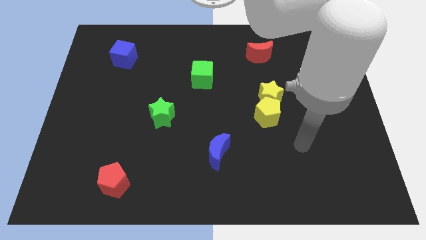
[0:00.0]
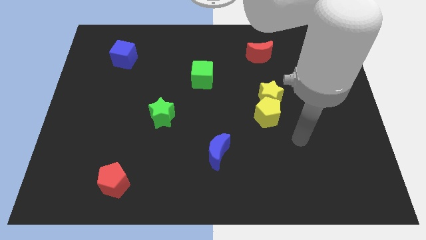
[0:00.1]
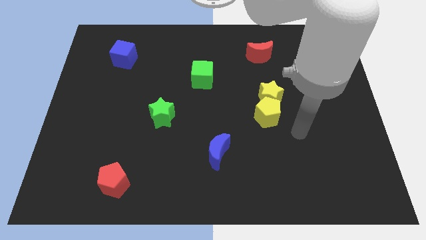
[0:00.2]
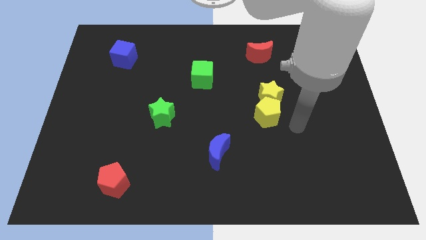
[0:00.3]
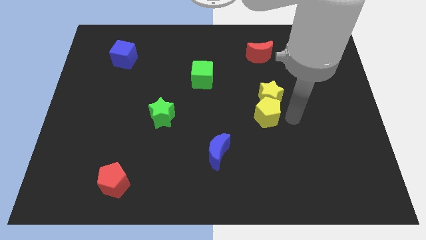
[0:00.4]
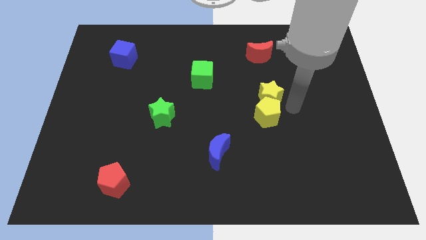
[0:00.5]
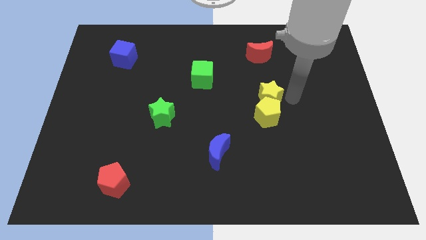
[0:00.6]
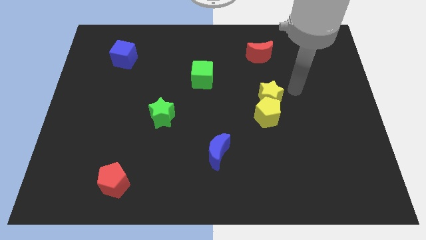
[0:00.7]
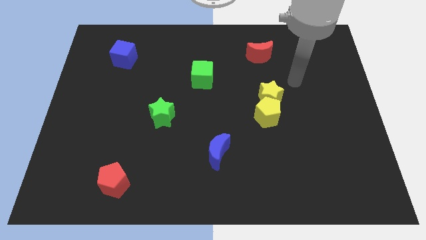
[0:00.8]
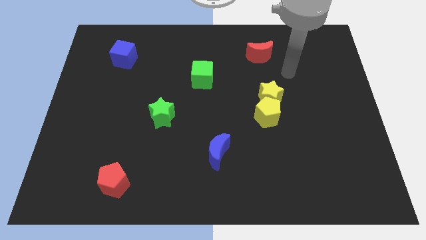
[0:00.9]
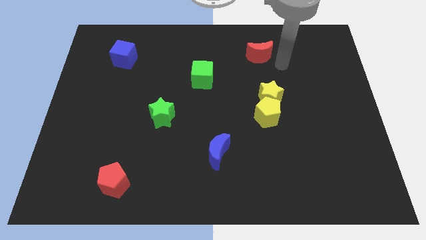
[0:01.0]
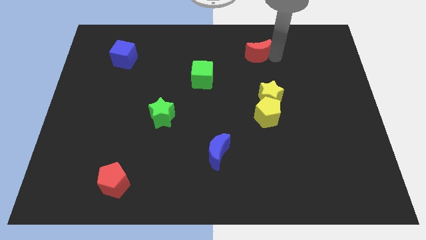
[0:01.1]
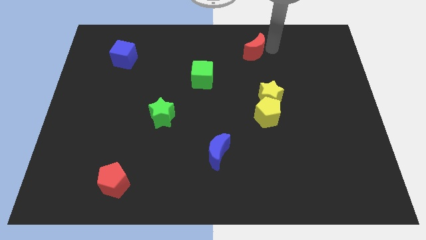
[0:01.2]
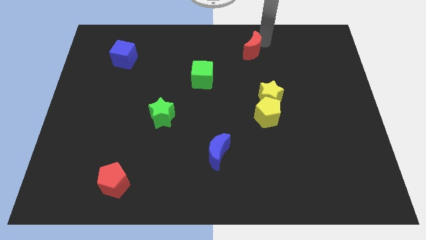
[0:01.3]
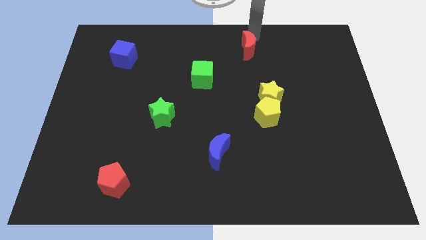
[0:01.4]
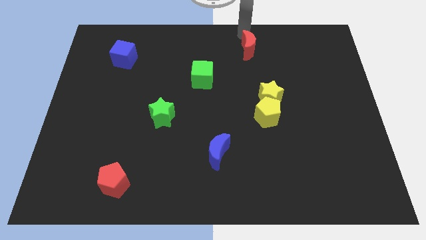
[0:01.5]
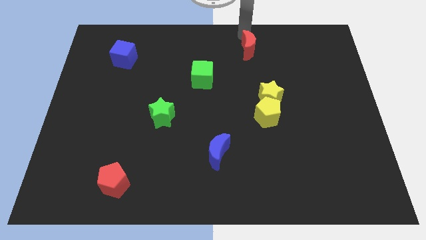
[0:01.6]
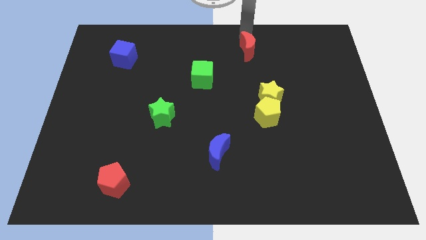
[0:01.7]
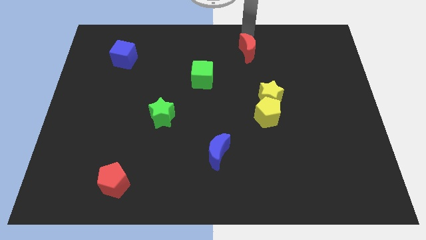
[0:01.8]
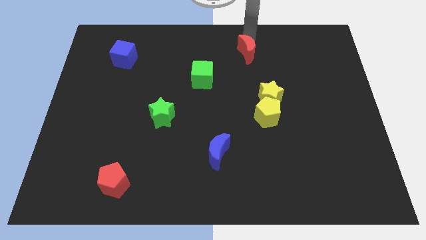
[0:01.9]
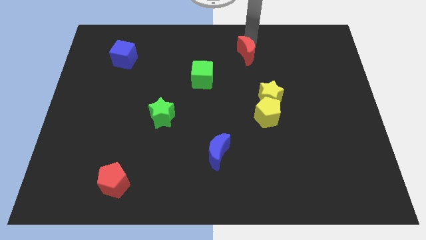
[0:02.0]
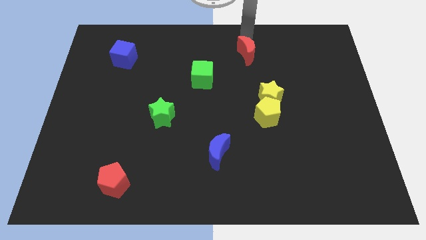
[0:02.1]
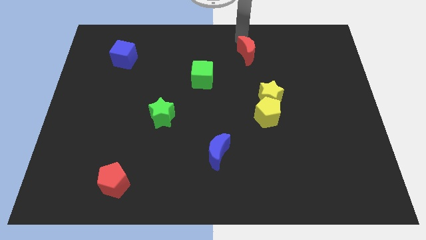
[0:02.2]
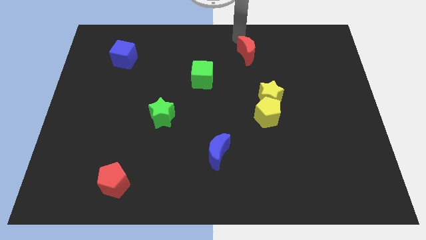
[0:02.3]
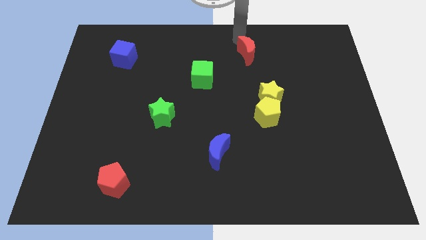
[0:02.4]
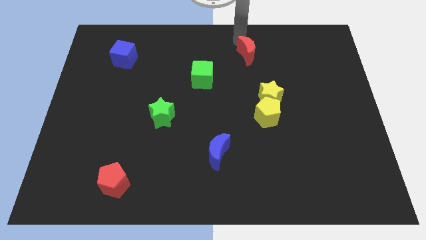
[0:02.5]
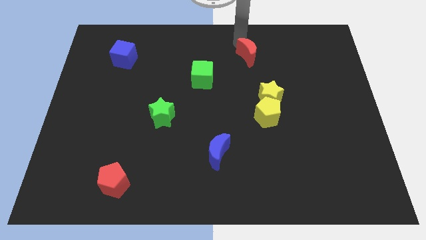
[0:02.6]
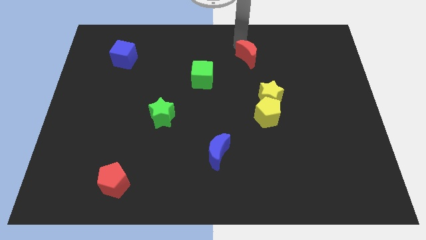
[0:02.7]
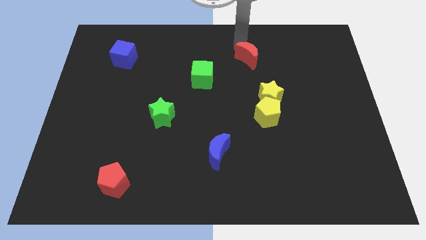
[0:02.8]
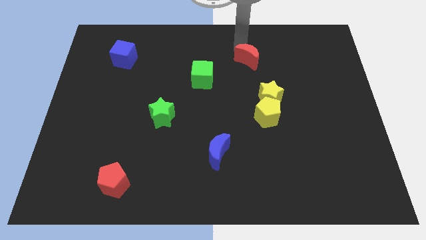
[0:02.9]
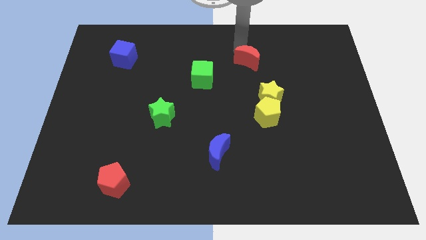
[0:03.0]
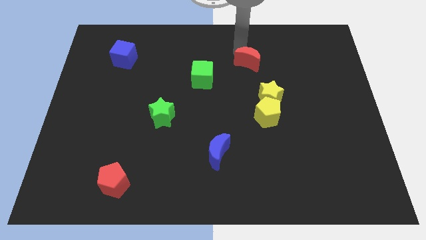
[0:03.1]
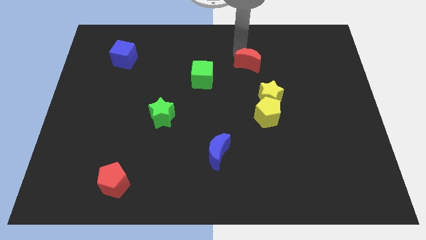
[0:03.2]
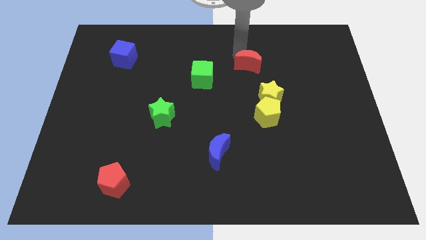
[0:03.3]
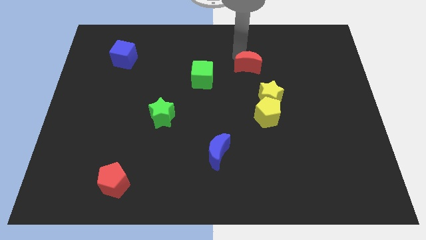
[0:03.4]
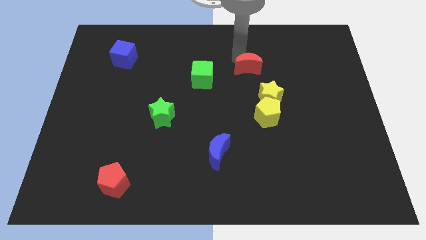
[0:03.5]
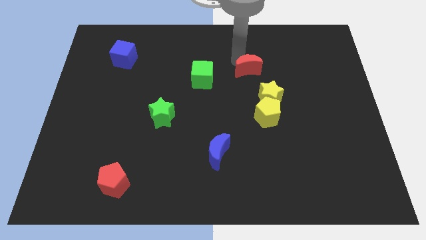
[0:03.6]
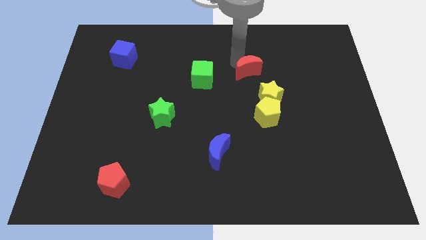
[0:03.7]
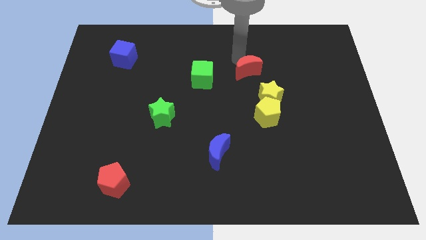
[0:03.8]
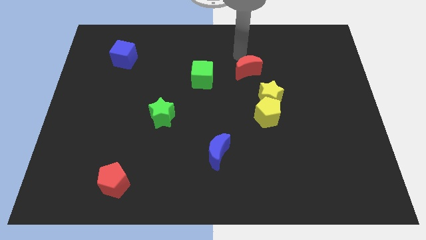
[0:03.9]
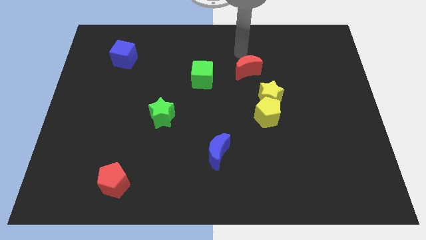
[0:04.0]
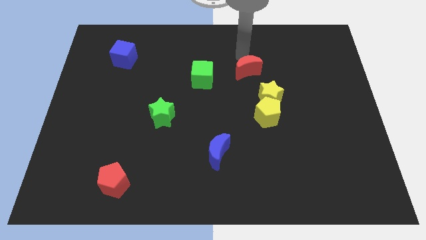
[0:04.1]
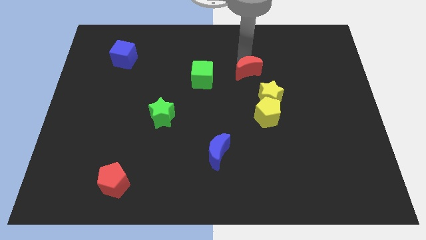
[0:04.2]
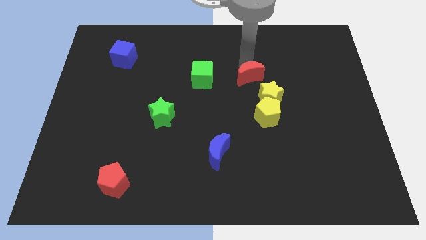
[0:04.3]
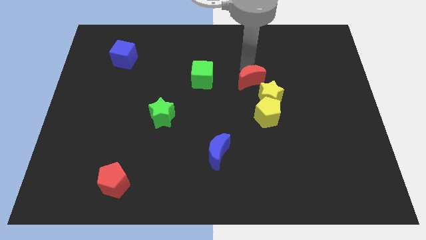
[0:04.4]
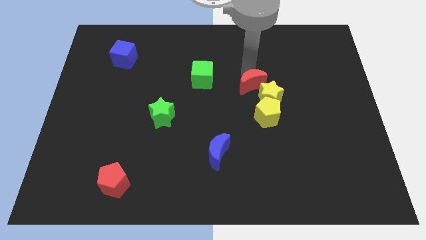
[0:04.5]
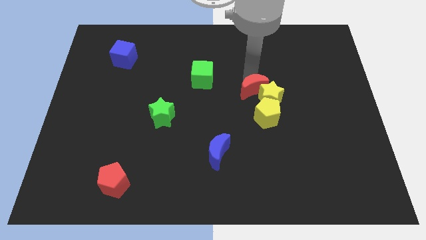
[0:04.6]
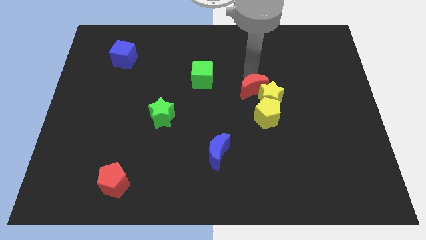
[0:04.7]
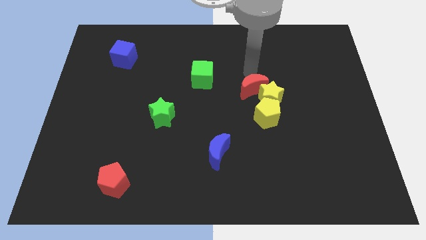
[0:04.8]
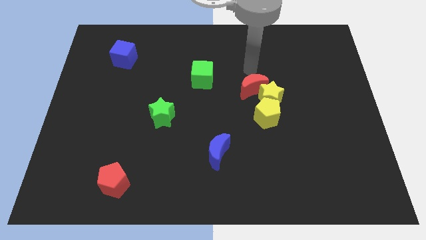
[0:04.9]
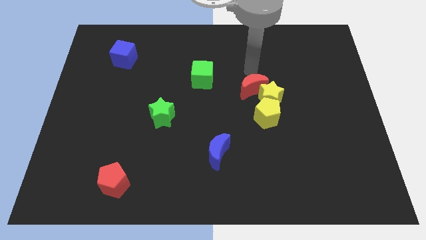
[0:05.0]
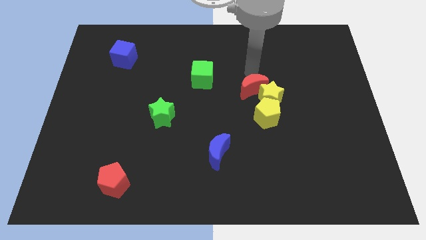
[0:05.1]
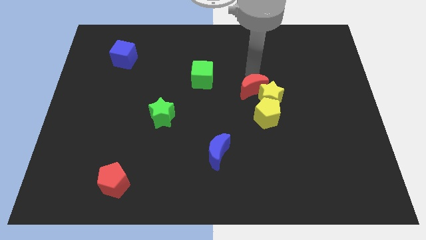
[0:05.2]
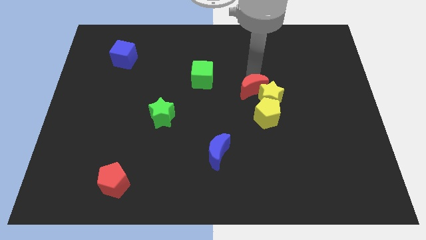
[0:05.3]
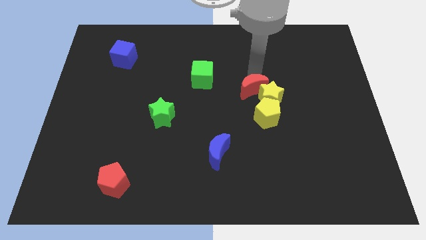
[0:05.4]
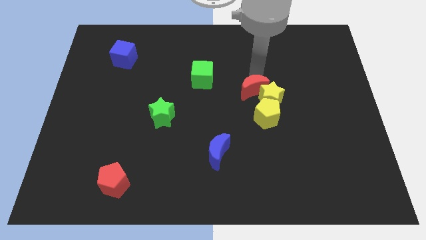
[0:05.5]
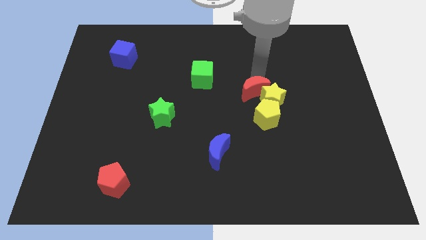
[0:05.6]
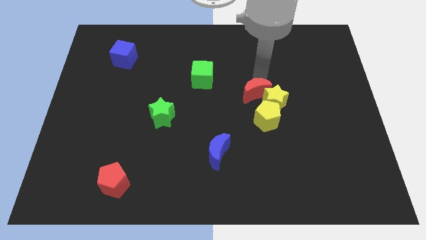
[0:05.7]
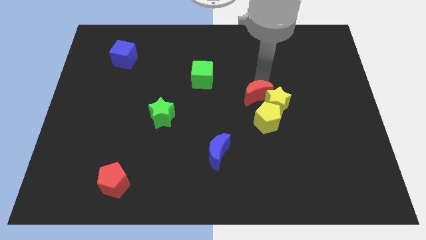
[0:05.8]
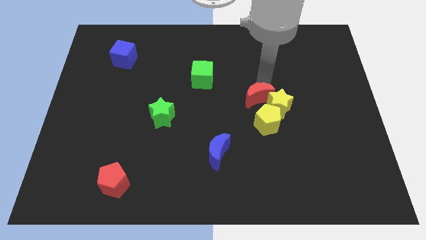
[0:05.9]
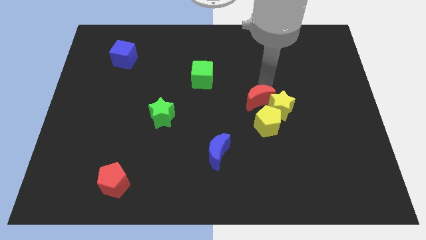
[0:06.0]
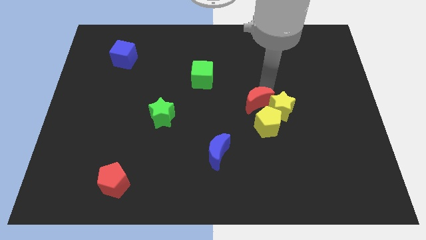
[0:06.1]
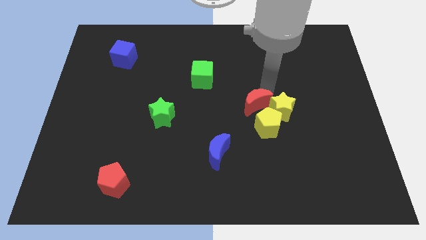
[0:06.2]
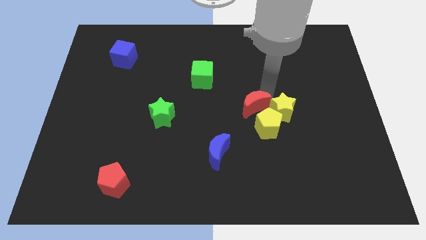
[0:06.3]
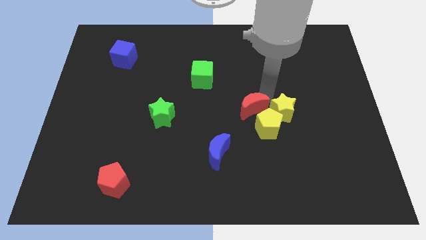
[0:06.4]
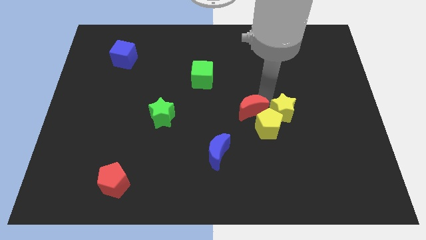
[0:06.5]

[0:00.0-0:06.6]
push the red moon close to the yellow pentagon
